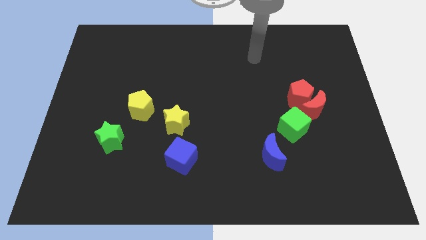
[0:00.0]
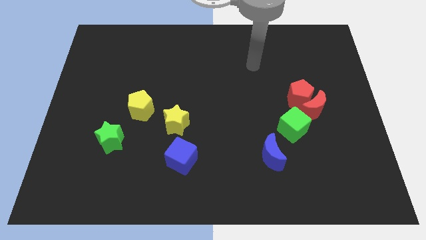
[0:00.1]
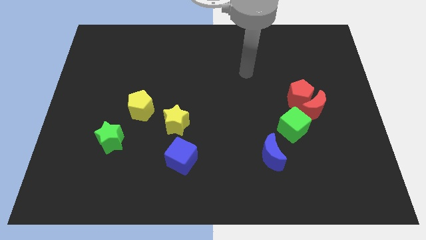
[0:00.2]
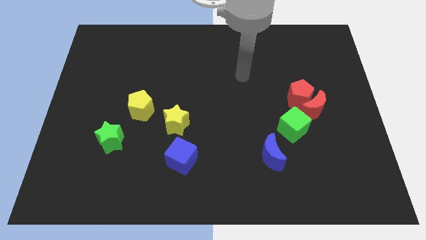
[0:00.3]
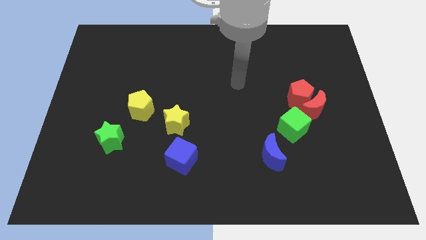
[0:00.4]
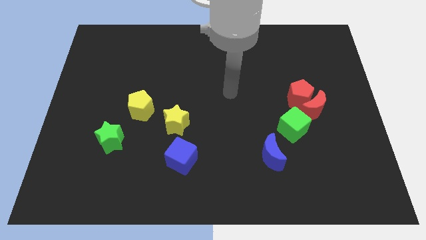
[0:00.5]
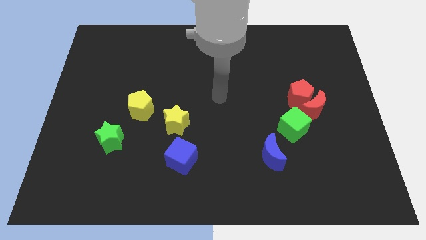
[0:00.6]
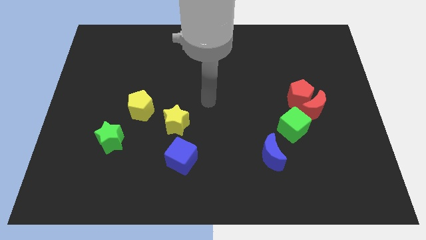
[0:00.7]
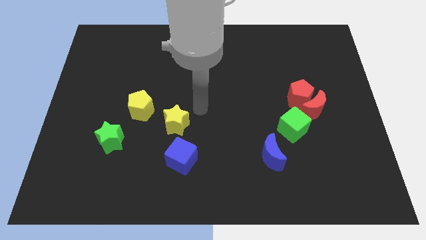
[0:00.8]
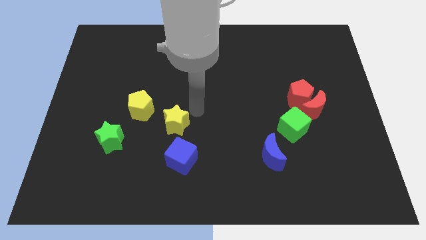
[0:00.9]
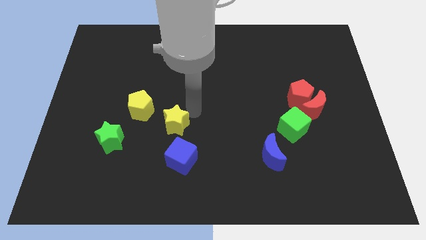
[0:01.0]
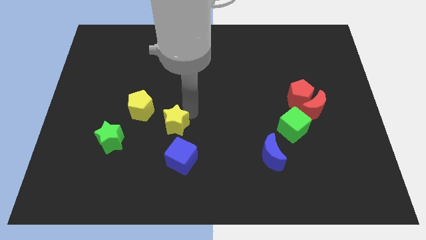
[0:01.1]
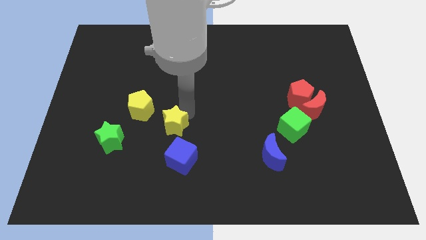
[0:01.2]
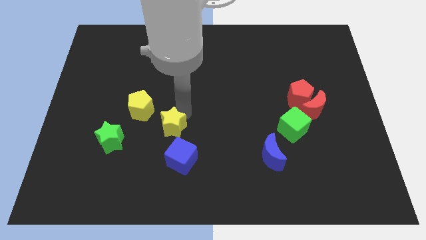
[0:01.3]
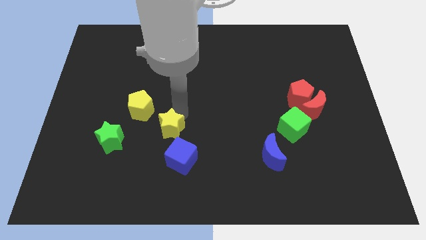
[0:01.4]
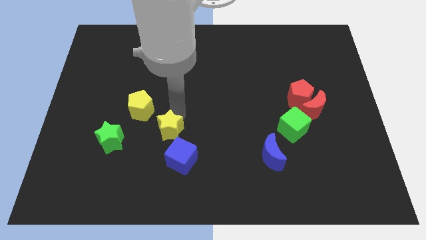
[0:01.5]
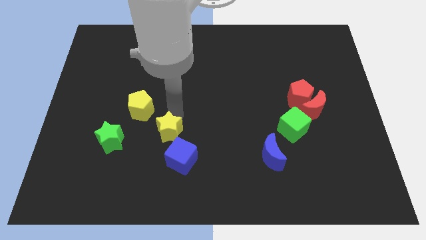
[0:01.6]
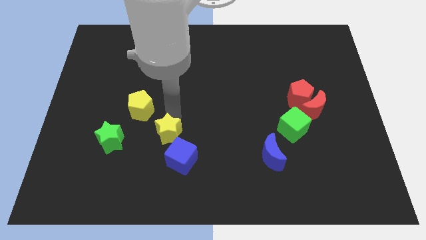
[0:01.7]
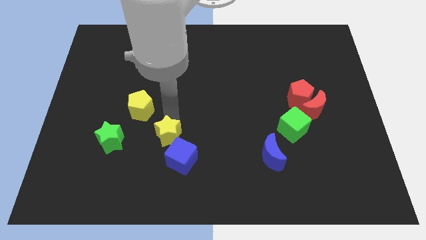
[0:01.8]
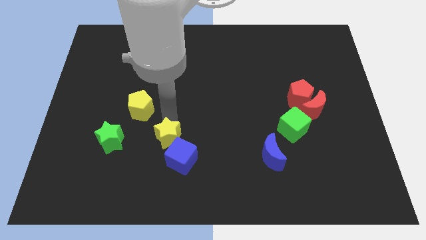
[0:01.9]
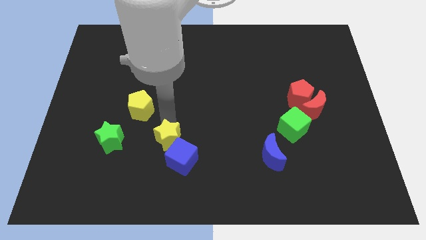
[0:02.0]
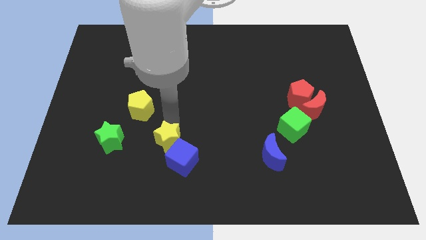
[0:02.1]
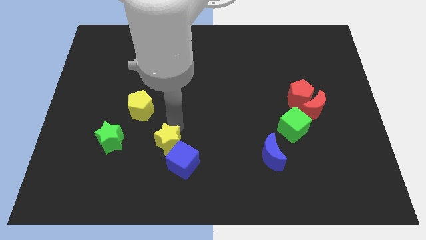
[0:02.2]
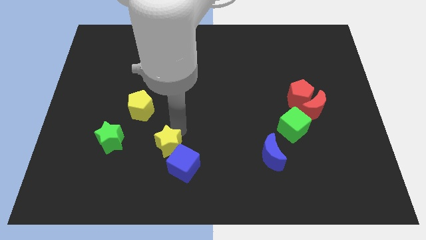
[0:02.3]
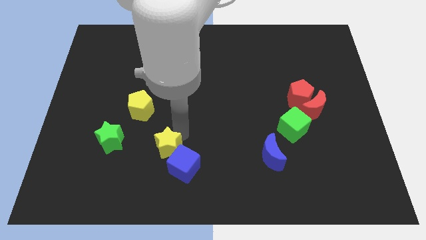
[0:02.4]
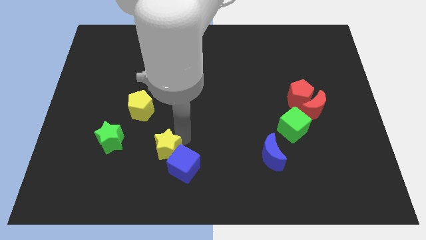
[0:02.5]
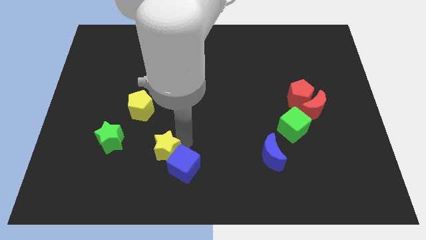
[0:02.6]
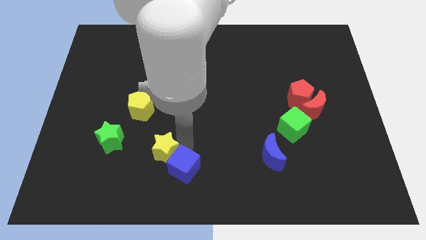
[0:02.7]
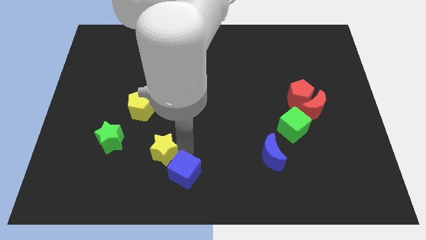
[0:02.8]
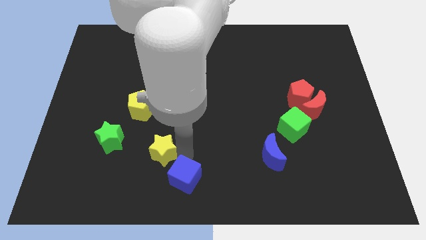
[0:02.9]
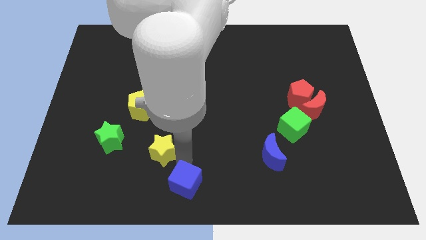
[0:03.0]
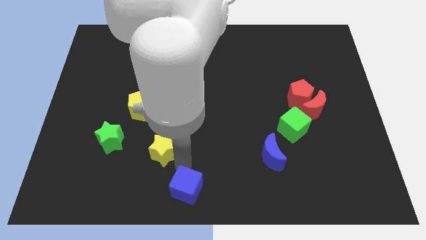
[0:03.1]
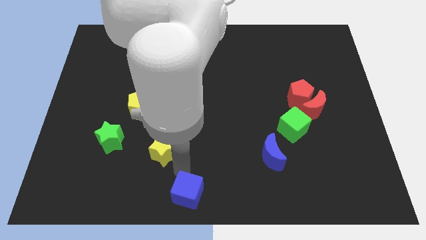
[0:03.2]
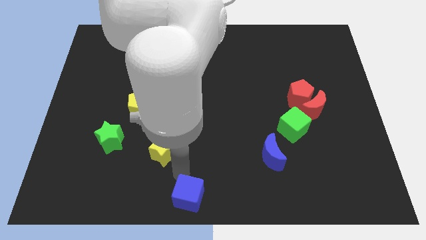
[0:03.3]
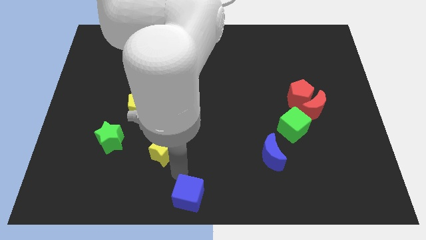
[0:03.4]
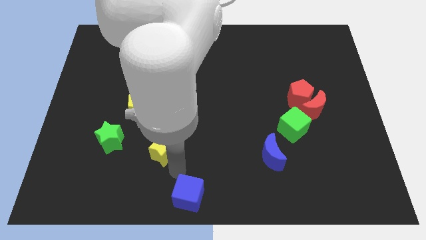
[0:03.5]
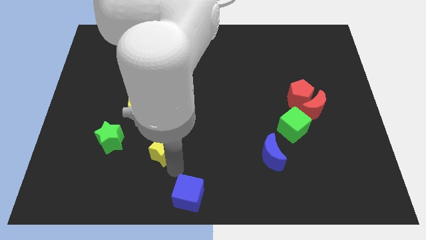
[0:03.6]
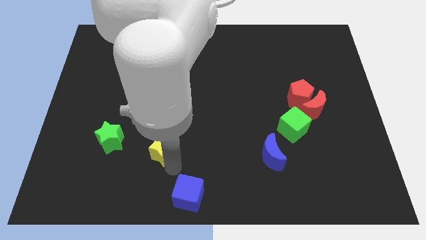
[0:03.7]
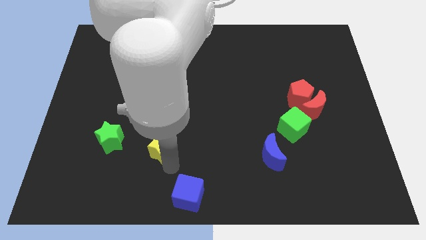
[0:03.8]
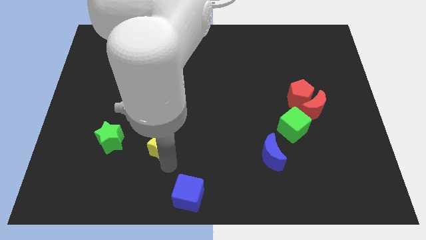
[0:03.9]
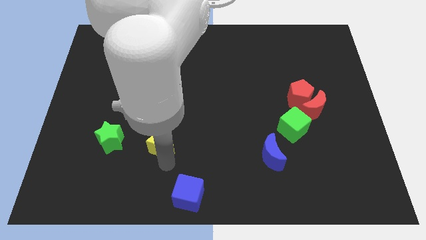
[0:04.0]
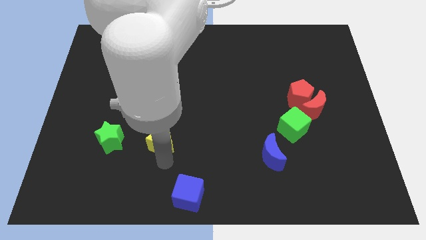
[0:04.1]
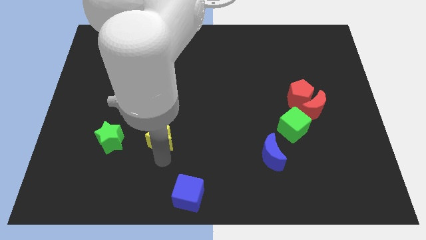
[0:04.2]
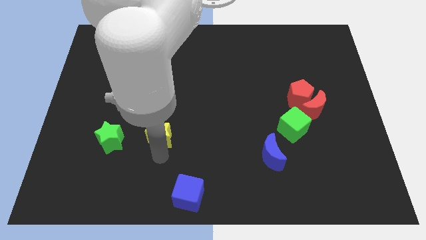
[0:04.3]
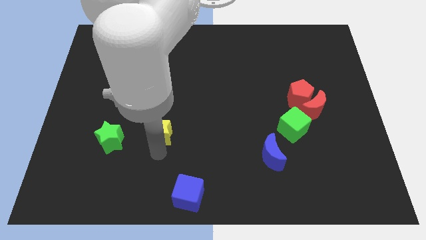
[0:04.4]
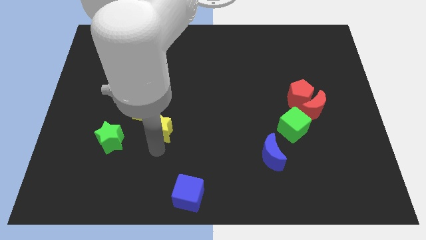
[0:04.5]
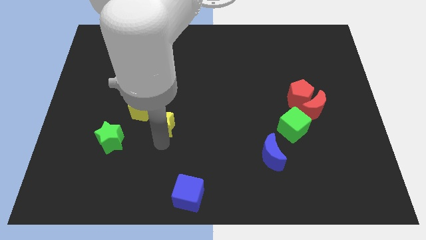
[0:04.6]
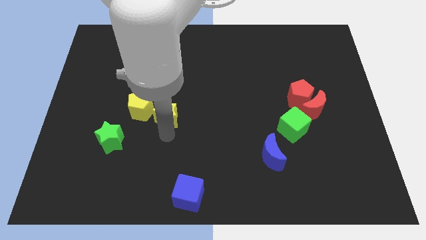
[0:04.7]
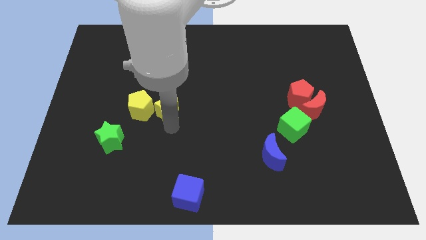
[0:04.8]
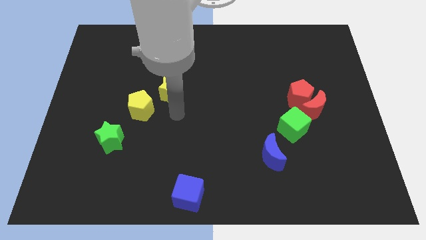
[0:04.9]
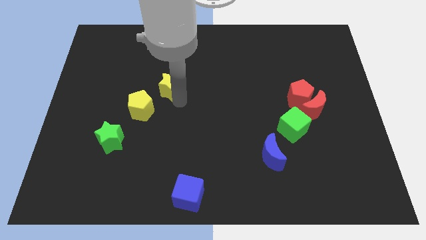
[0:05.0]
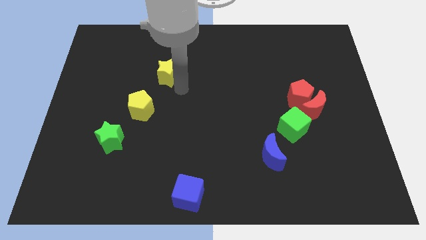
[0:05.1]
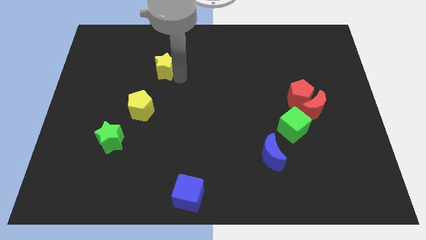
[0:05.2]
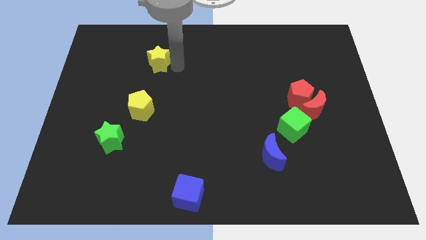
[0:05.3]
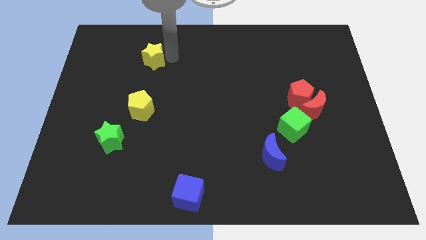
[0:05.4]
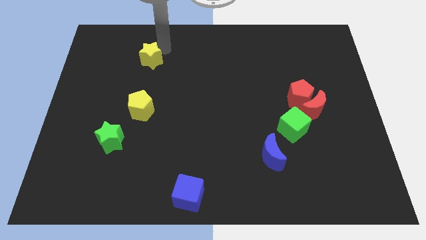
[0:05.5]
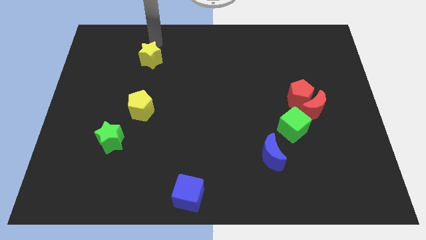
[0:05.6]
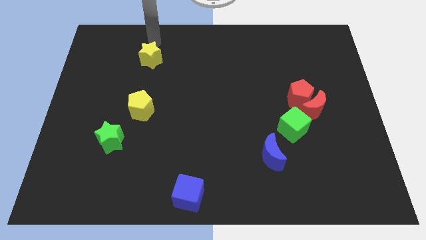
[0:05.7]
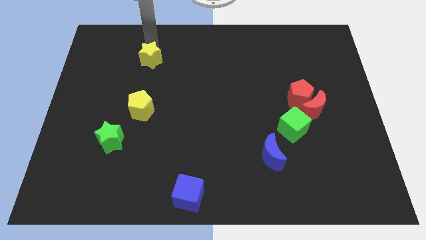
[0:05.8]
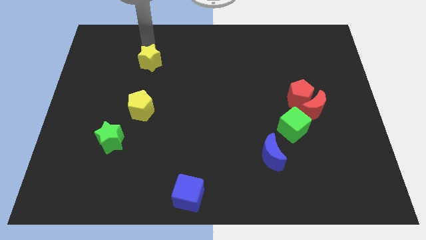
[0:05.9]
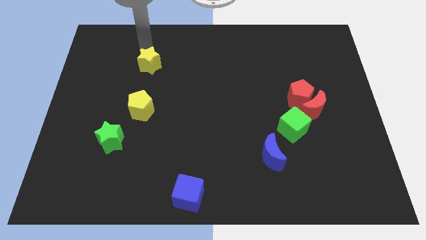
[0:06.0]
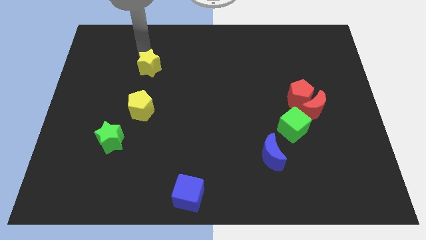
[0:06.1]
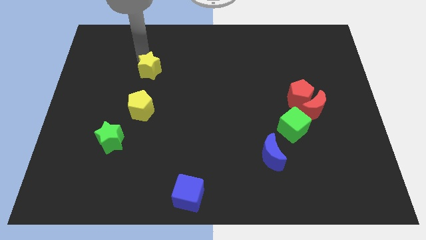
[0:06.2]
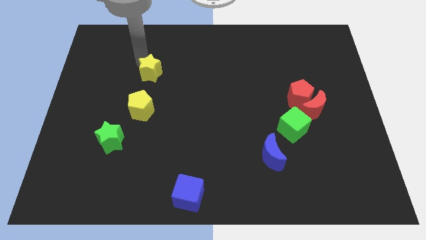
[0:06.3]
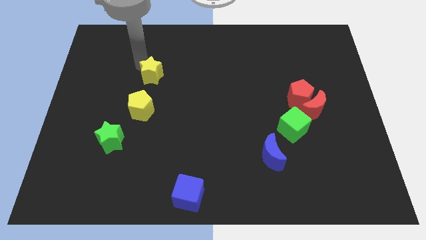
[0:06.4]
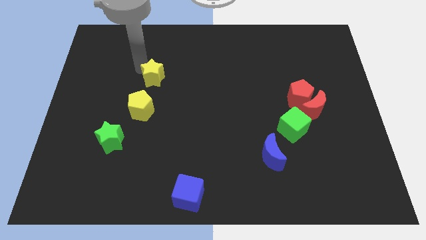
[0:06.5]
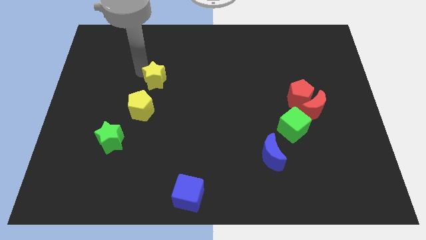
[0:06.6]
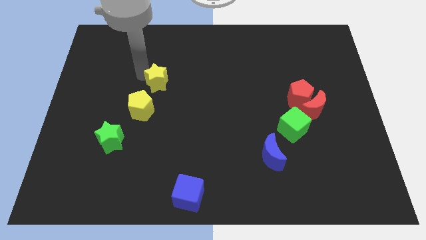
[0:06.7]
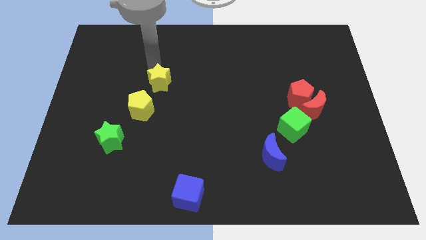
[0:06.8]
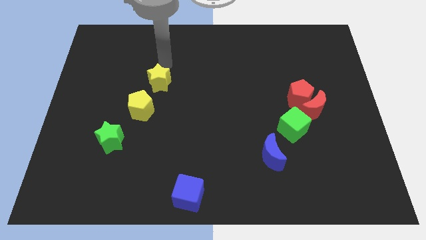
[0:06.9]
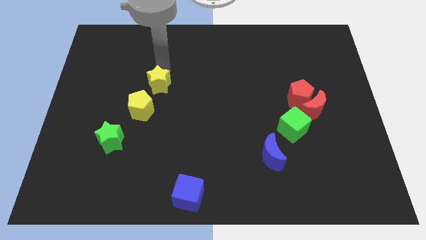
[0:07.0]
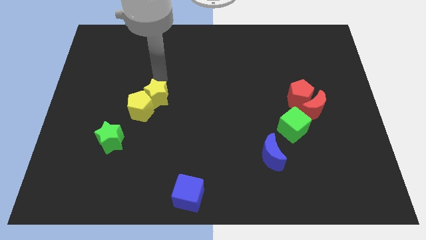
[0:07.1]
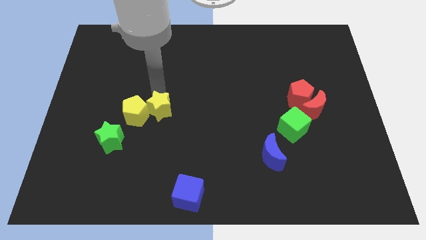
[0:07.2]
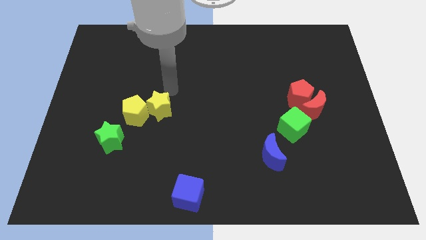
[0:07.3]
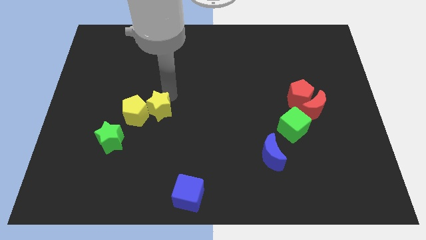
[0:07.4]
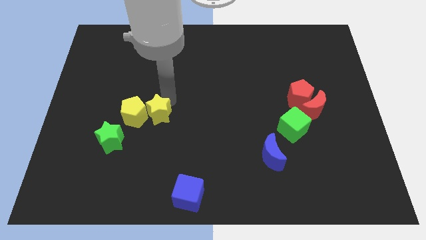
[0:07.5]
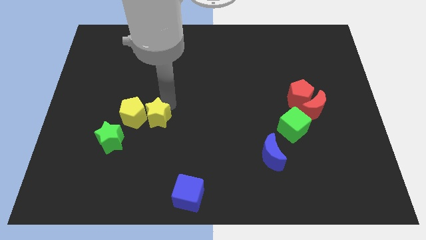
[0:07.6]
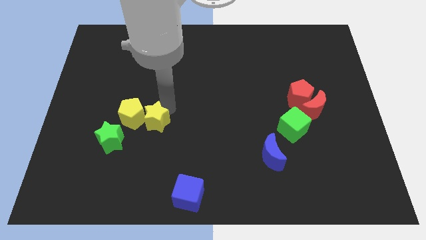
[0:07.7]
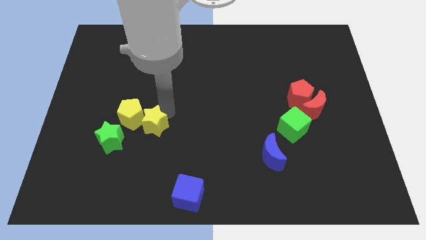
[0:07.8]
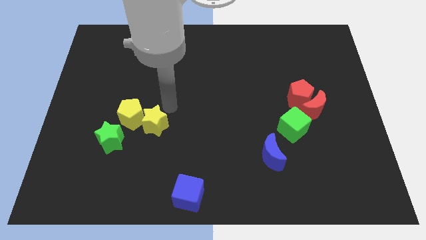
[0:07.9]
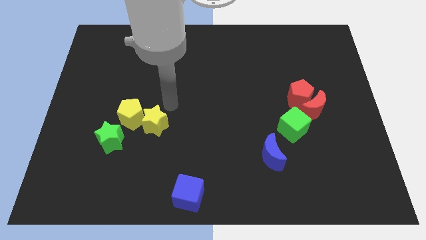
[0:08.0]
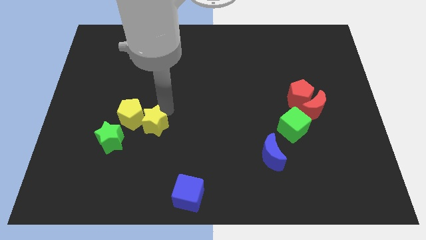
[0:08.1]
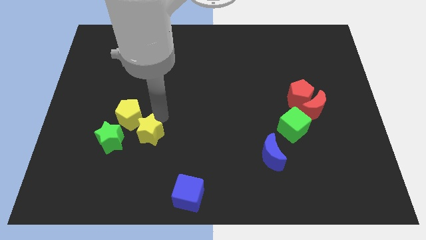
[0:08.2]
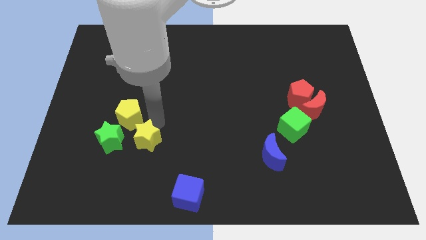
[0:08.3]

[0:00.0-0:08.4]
slightly move the yellow star downwards and then left
